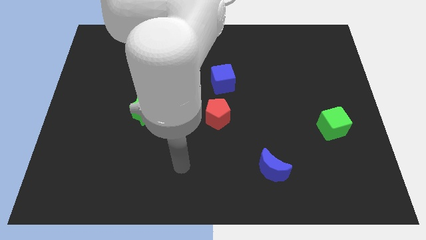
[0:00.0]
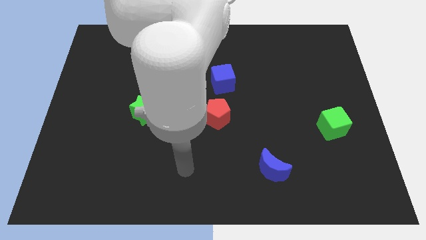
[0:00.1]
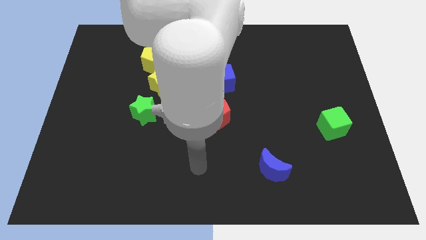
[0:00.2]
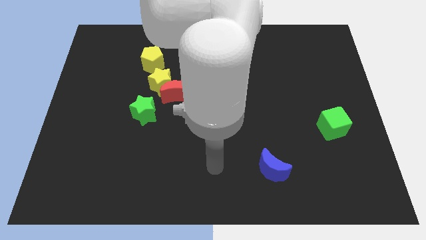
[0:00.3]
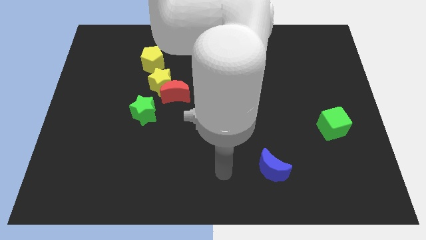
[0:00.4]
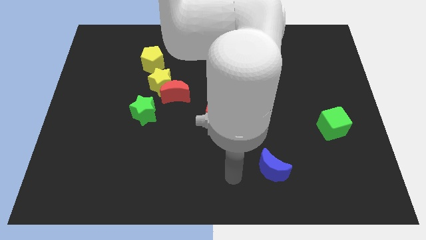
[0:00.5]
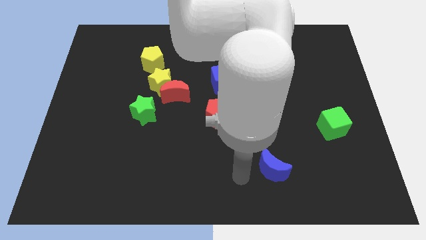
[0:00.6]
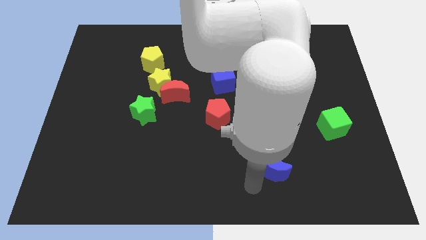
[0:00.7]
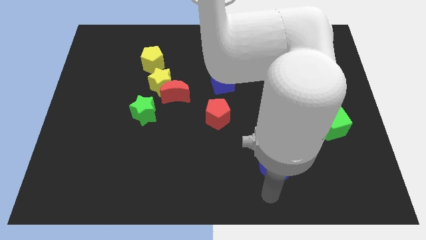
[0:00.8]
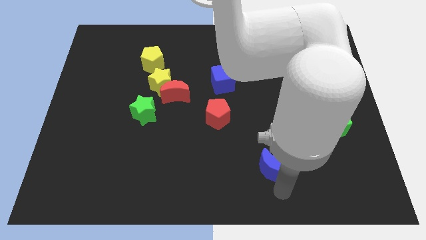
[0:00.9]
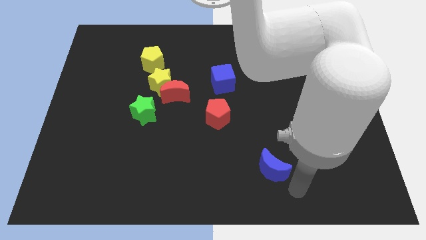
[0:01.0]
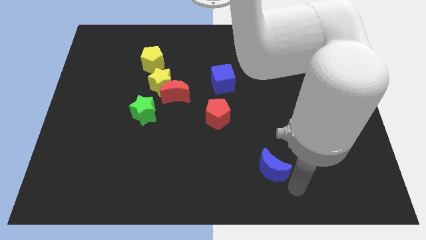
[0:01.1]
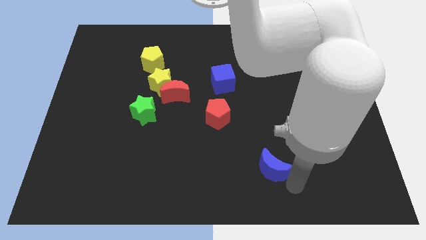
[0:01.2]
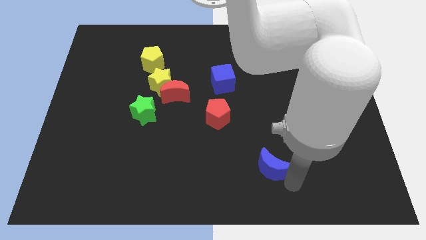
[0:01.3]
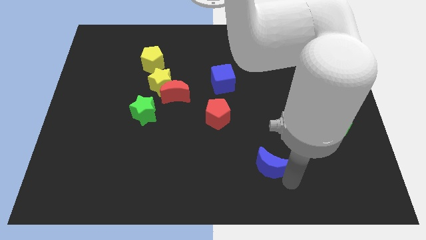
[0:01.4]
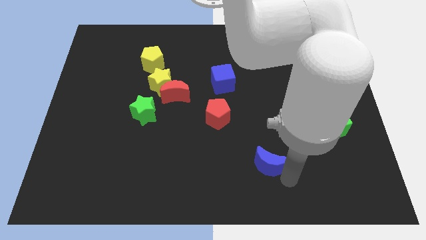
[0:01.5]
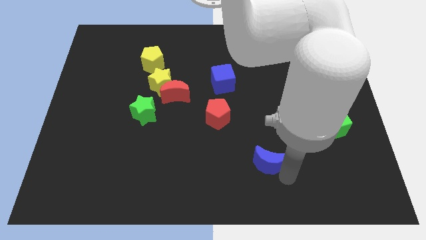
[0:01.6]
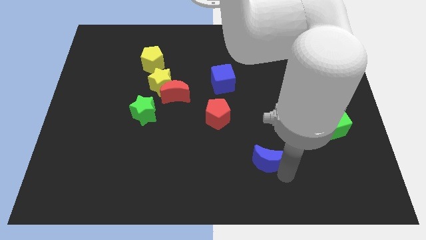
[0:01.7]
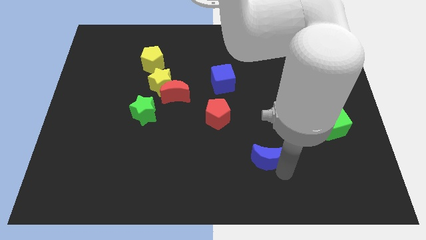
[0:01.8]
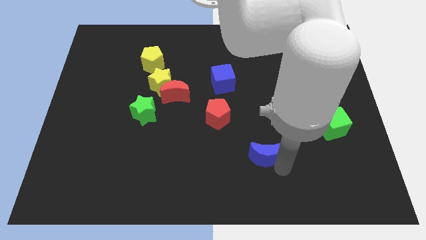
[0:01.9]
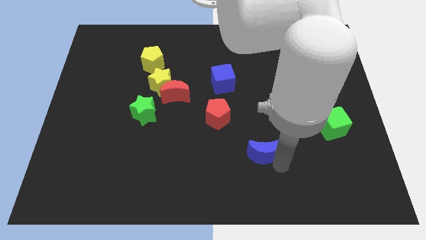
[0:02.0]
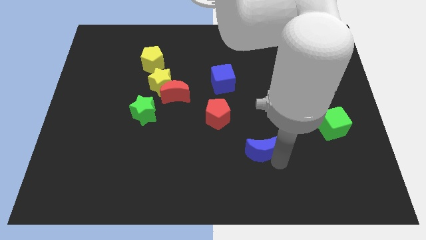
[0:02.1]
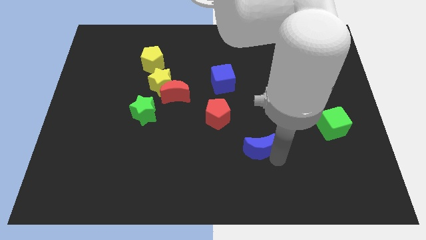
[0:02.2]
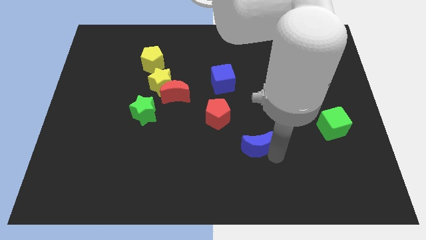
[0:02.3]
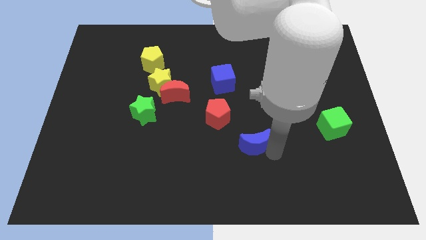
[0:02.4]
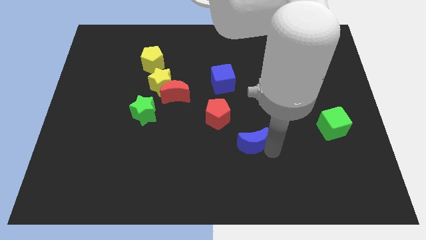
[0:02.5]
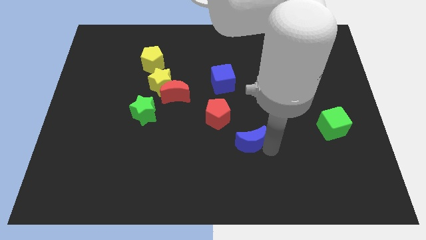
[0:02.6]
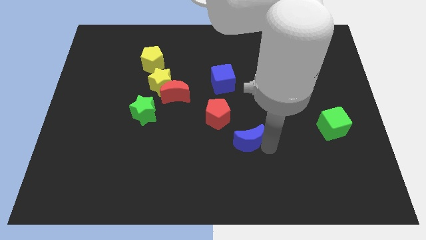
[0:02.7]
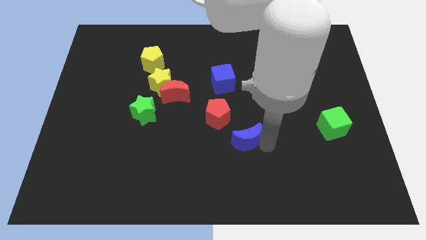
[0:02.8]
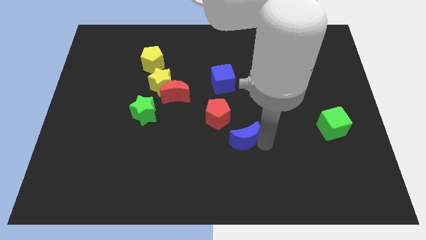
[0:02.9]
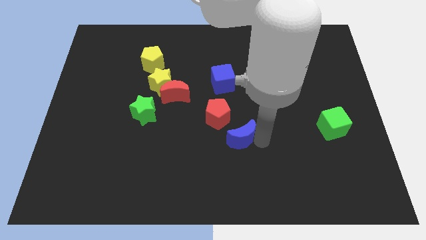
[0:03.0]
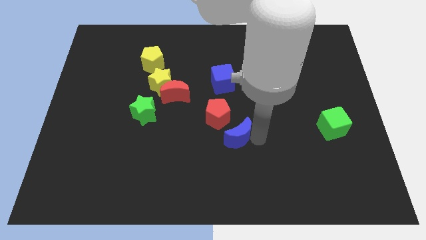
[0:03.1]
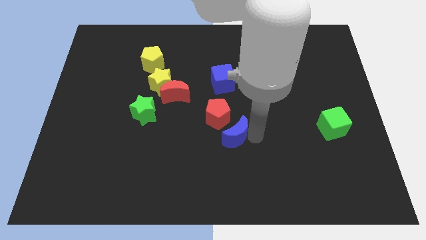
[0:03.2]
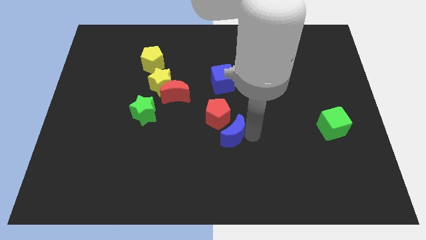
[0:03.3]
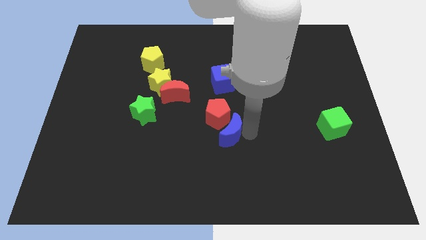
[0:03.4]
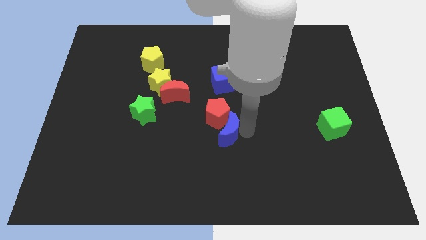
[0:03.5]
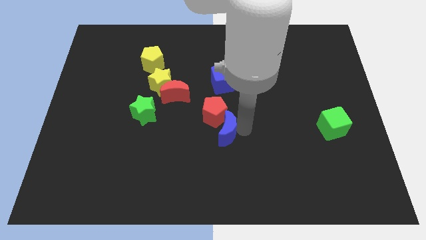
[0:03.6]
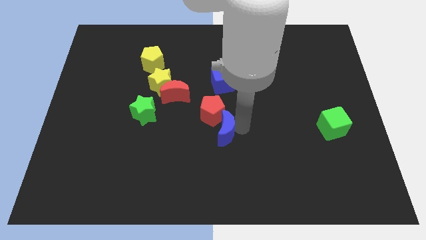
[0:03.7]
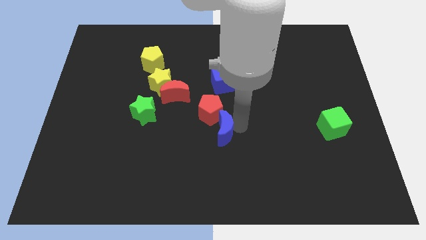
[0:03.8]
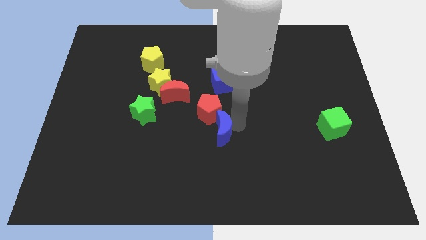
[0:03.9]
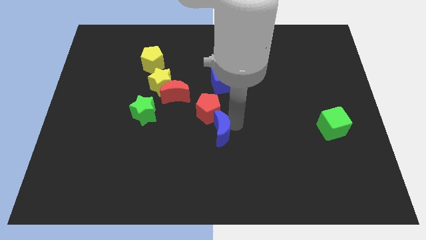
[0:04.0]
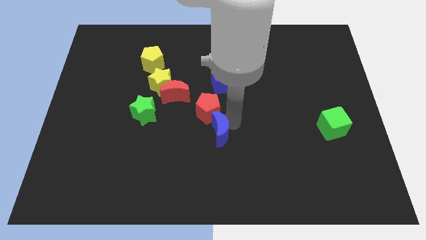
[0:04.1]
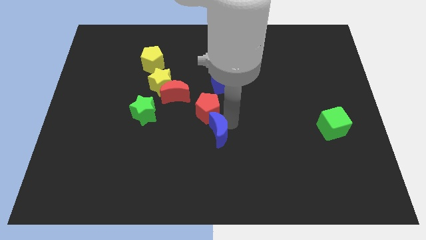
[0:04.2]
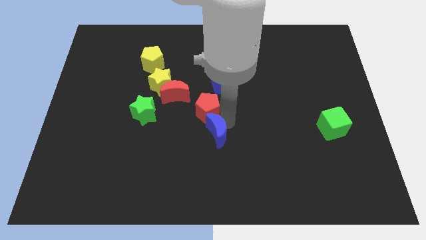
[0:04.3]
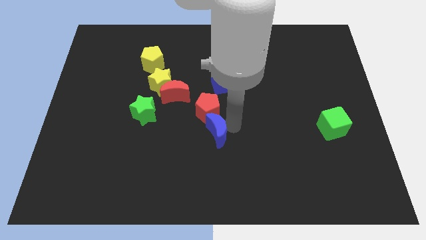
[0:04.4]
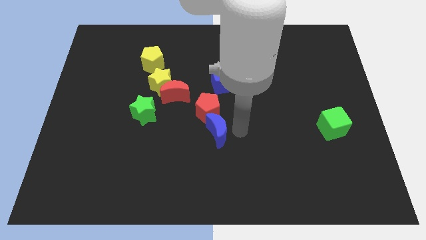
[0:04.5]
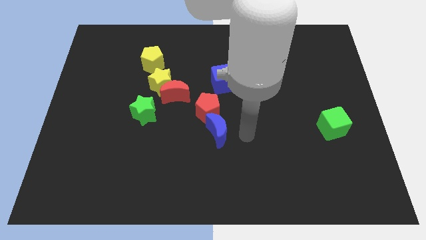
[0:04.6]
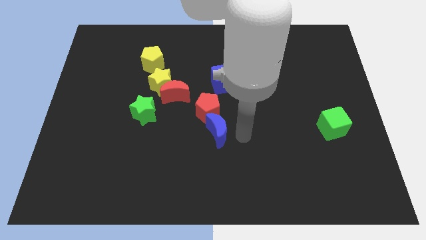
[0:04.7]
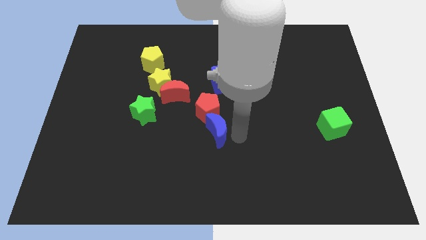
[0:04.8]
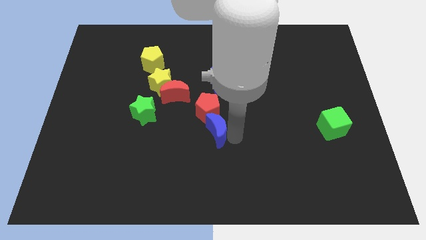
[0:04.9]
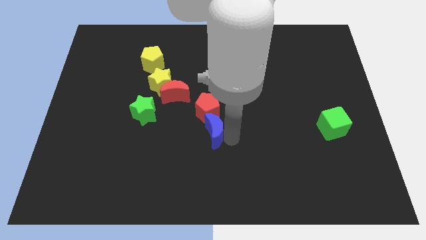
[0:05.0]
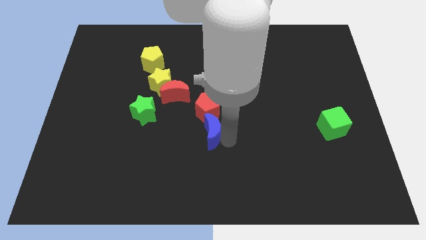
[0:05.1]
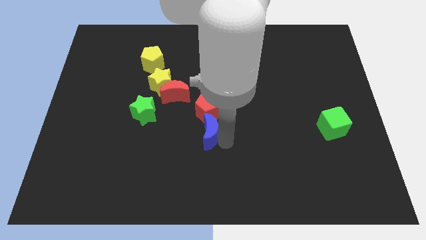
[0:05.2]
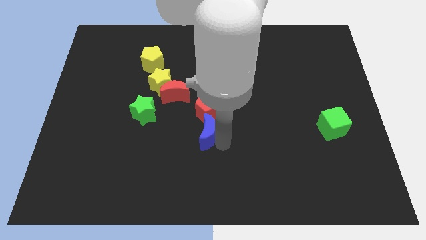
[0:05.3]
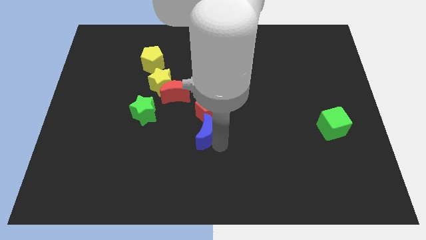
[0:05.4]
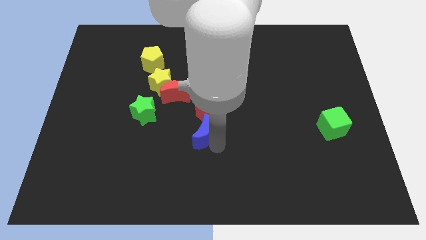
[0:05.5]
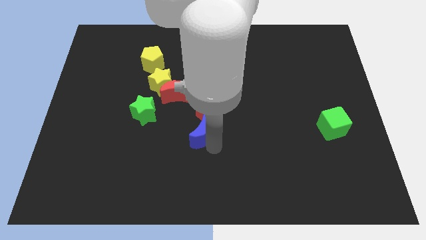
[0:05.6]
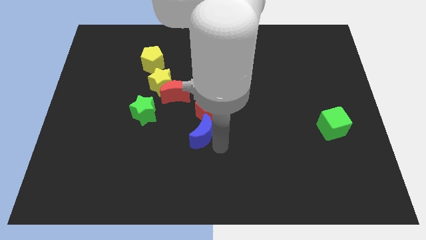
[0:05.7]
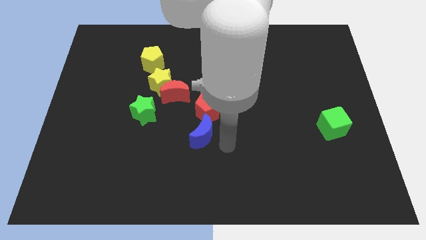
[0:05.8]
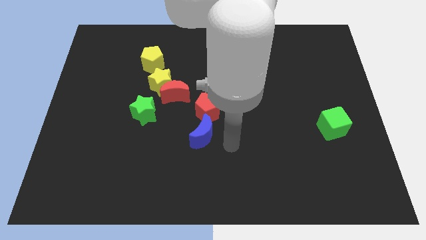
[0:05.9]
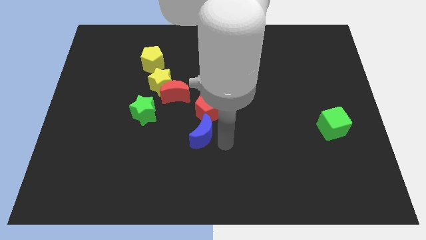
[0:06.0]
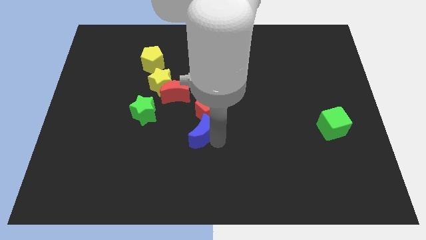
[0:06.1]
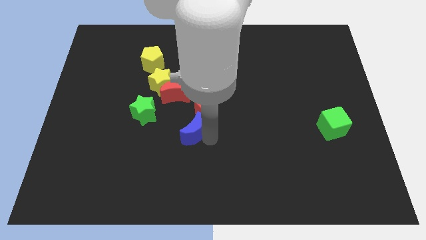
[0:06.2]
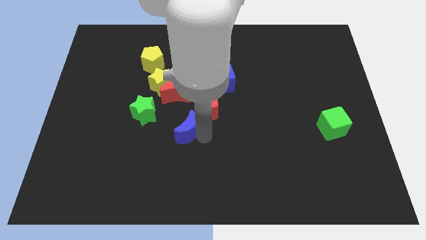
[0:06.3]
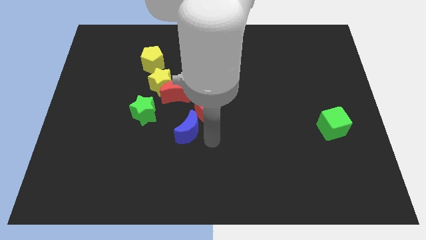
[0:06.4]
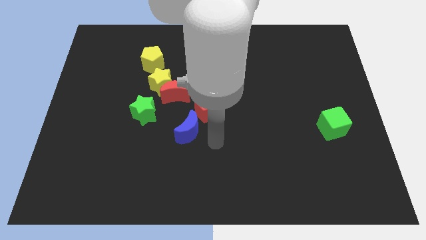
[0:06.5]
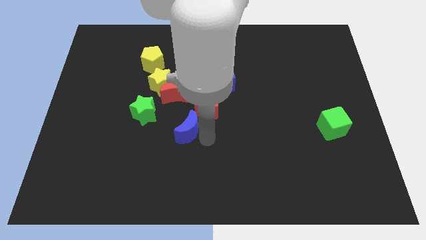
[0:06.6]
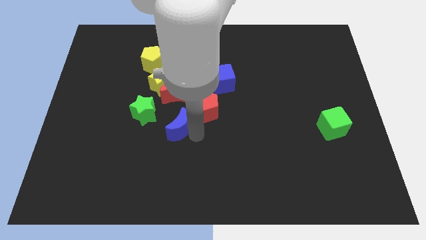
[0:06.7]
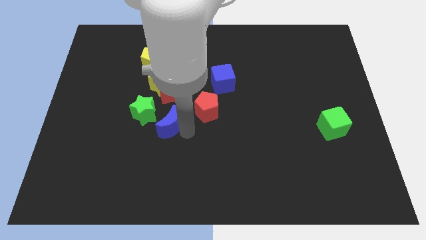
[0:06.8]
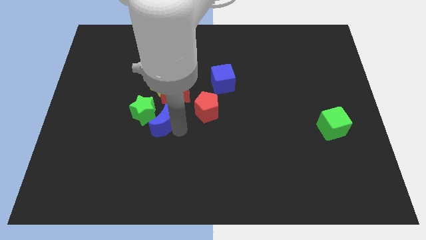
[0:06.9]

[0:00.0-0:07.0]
push the blue moon towards the green star

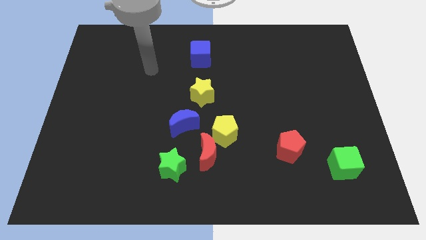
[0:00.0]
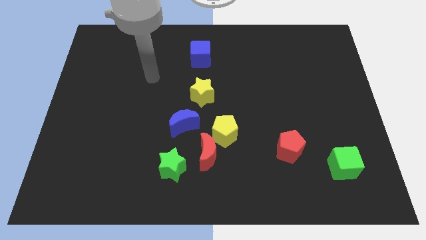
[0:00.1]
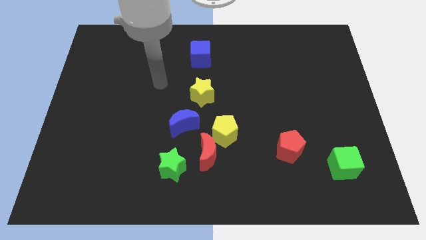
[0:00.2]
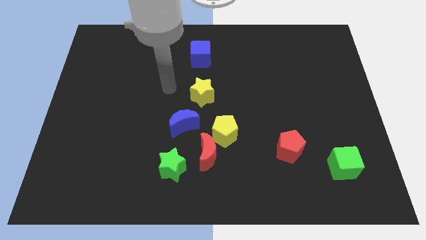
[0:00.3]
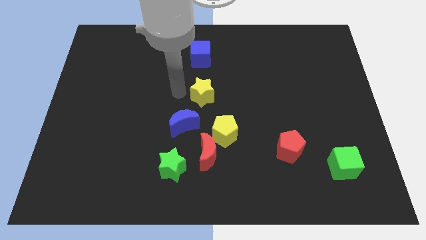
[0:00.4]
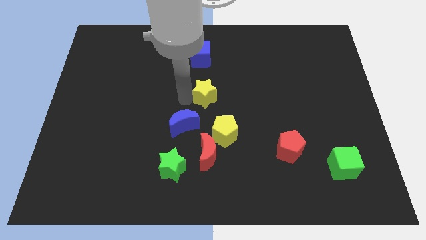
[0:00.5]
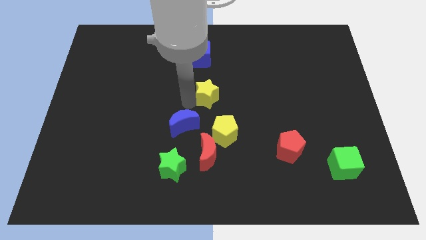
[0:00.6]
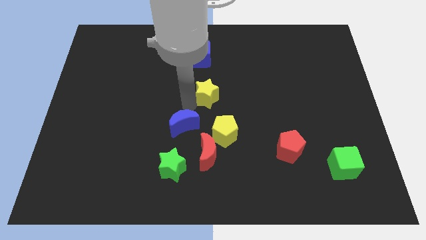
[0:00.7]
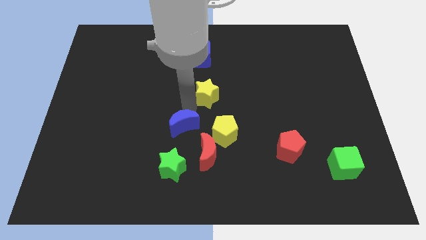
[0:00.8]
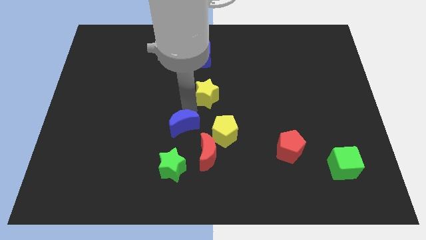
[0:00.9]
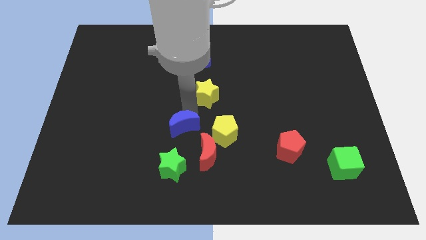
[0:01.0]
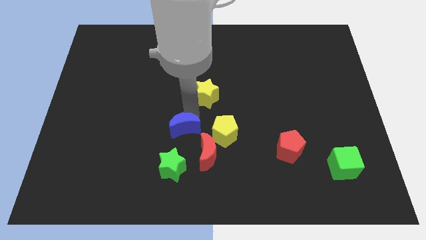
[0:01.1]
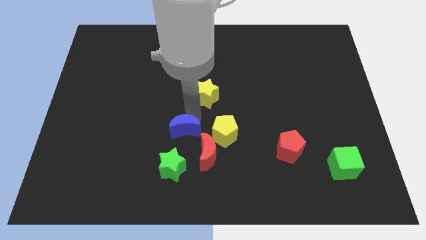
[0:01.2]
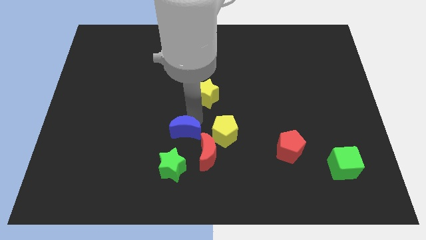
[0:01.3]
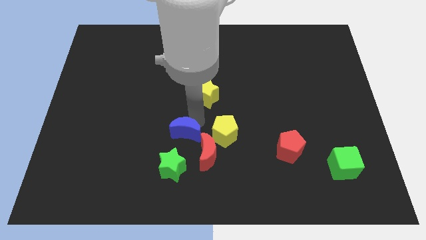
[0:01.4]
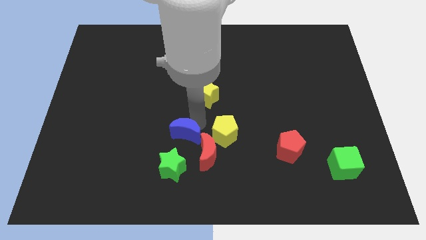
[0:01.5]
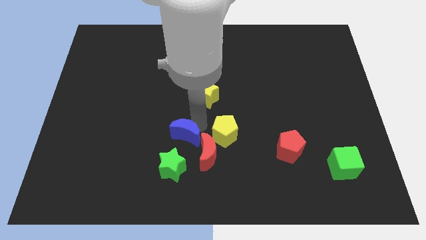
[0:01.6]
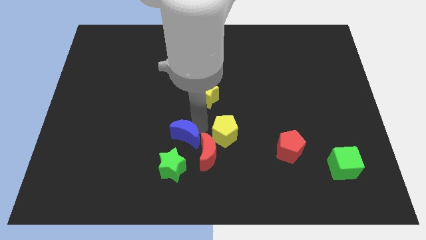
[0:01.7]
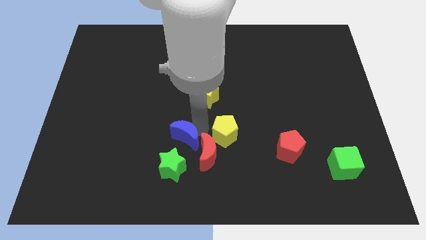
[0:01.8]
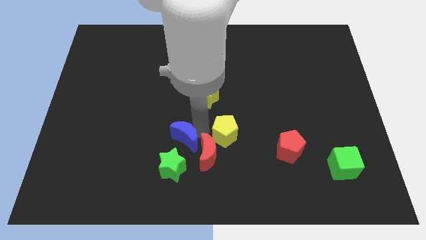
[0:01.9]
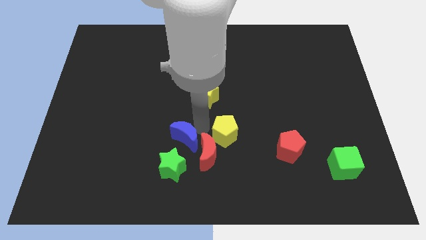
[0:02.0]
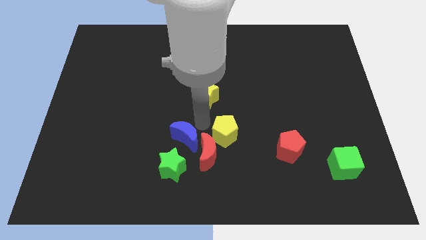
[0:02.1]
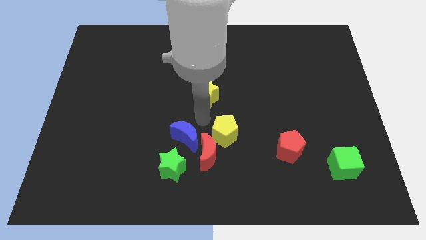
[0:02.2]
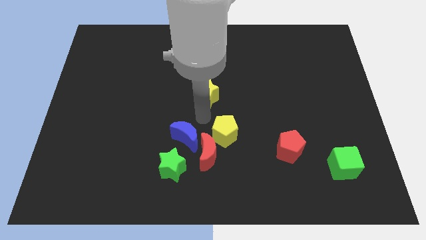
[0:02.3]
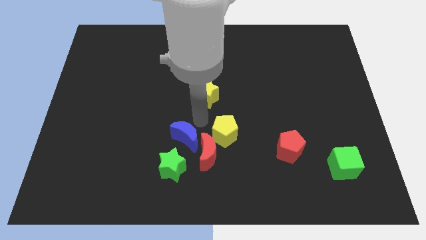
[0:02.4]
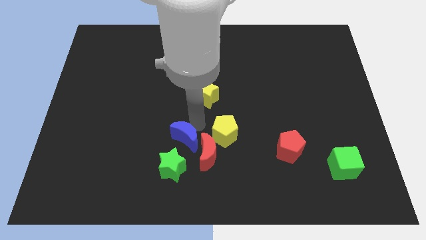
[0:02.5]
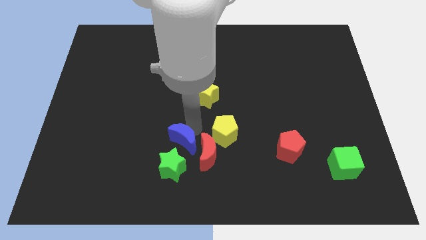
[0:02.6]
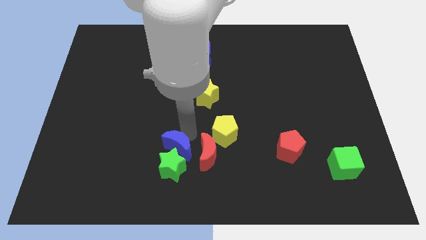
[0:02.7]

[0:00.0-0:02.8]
slide the blue moon next to the green star
